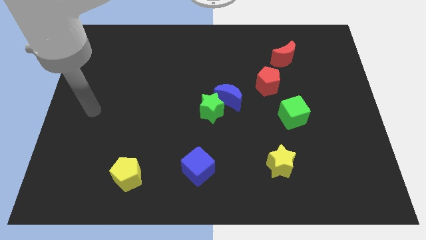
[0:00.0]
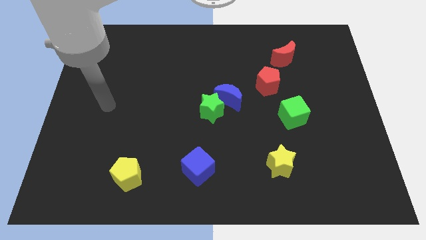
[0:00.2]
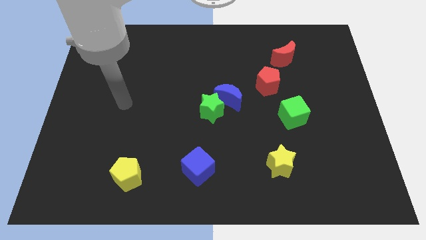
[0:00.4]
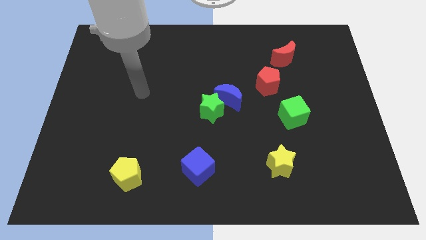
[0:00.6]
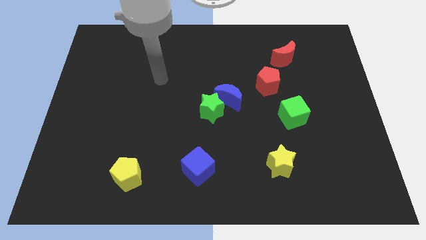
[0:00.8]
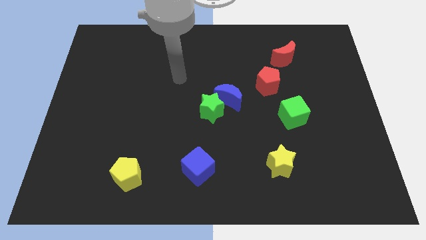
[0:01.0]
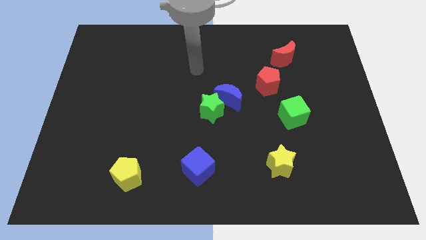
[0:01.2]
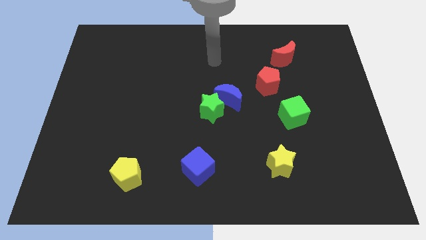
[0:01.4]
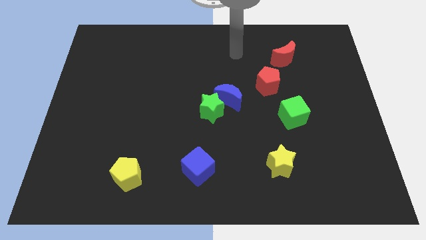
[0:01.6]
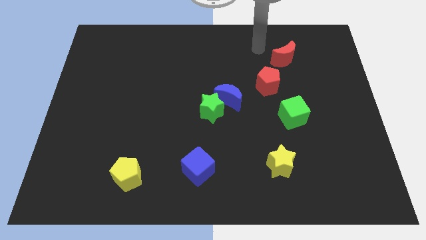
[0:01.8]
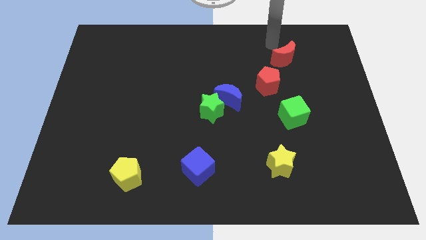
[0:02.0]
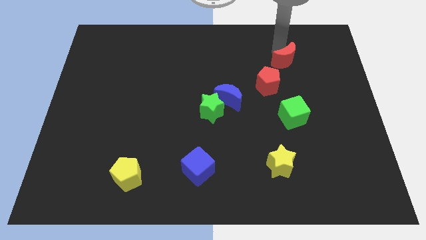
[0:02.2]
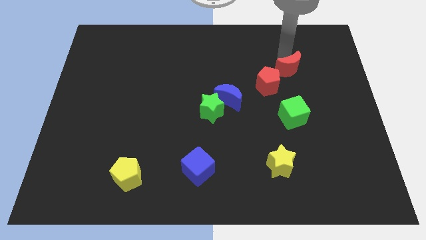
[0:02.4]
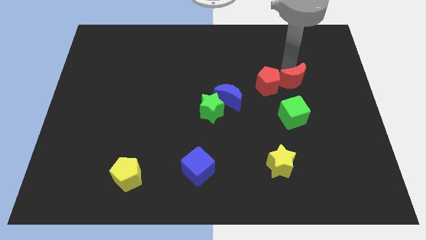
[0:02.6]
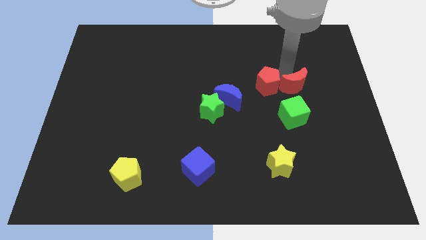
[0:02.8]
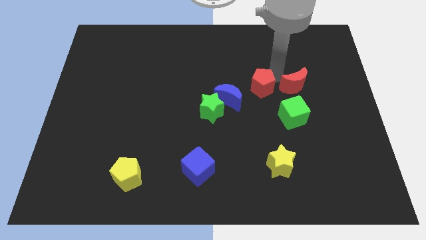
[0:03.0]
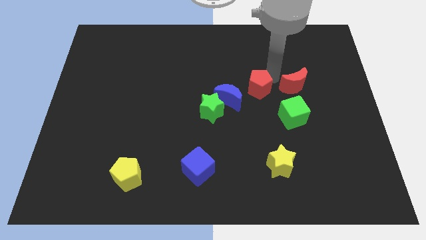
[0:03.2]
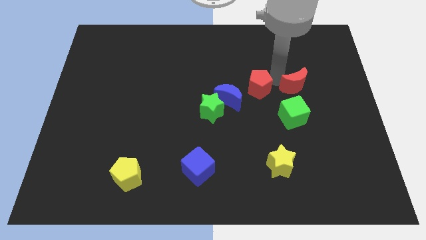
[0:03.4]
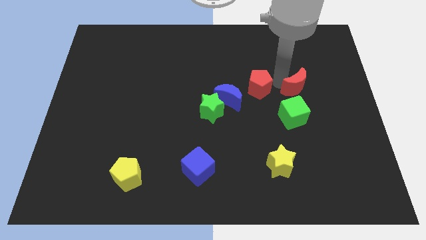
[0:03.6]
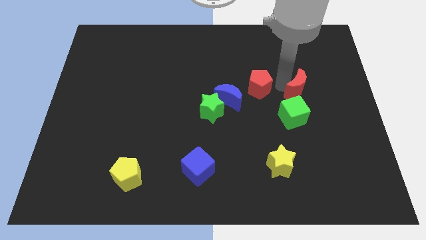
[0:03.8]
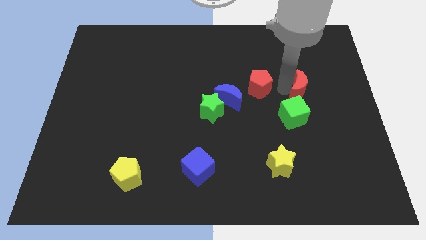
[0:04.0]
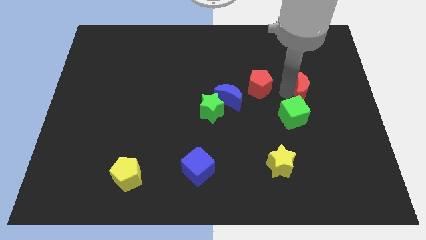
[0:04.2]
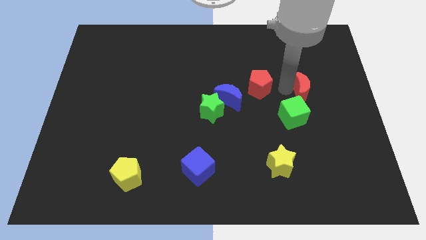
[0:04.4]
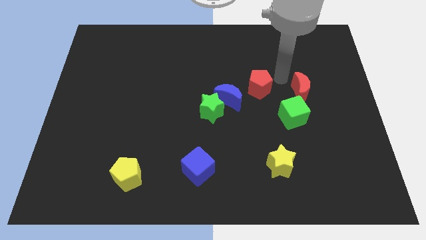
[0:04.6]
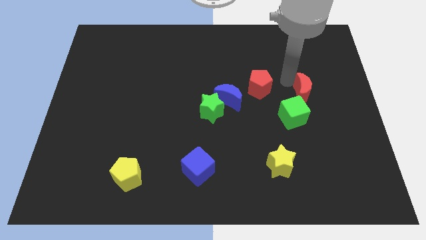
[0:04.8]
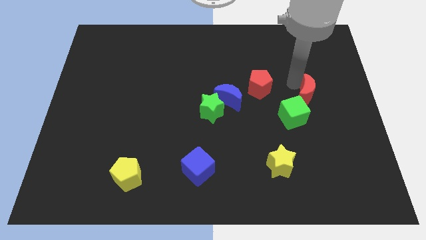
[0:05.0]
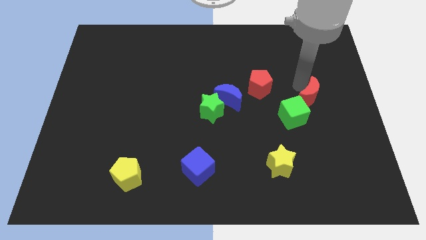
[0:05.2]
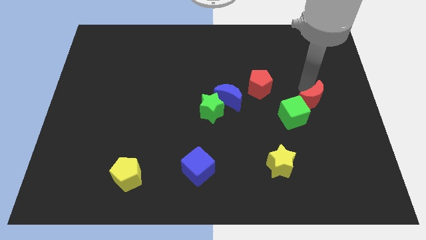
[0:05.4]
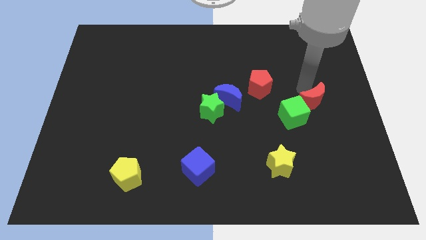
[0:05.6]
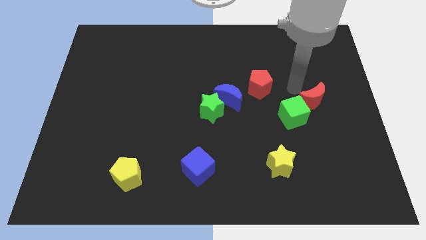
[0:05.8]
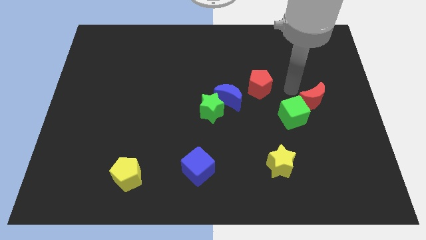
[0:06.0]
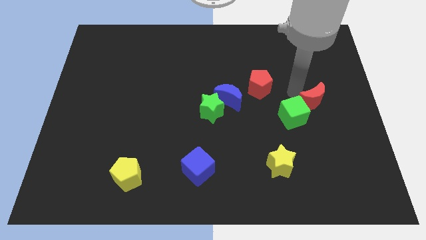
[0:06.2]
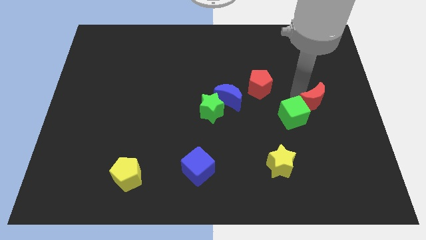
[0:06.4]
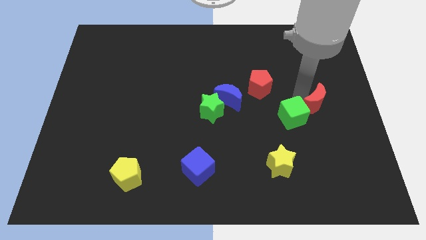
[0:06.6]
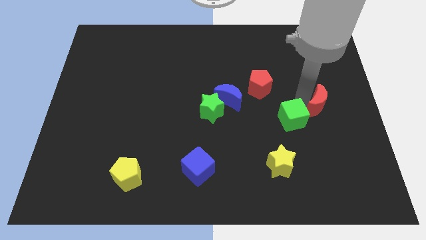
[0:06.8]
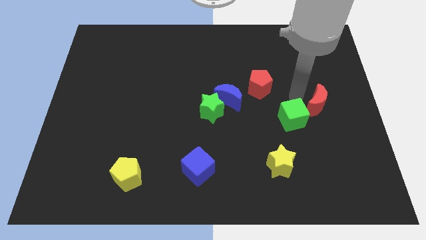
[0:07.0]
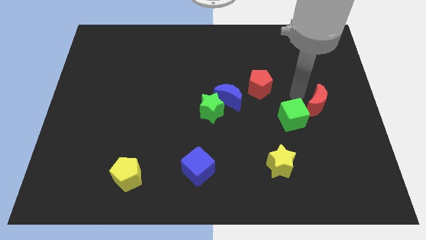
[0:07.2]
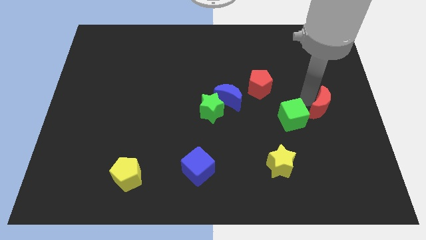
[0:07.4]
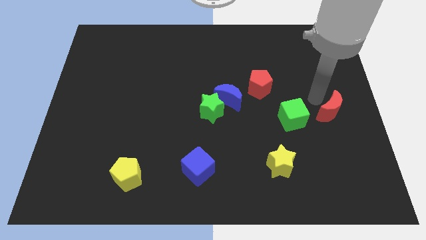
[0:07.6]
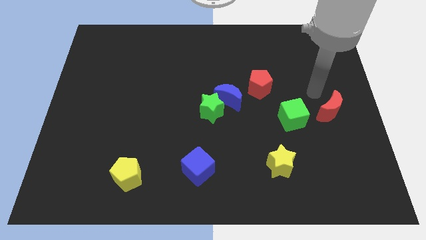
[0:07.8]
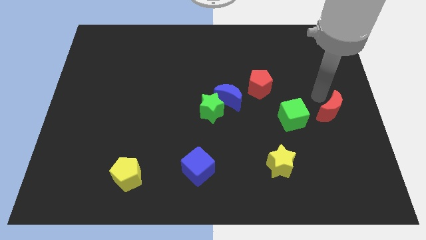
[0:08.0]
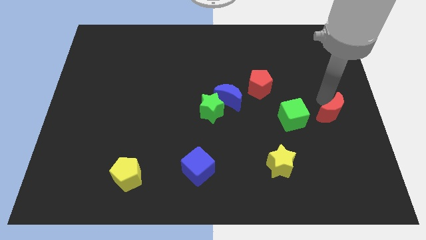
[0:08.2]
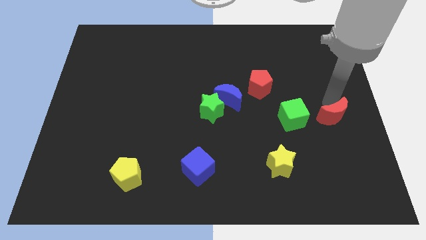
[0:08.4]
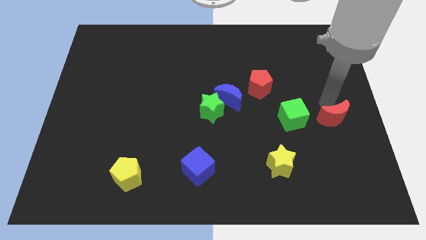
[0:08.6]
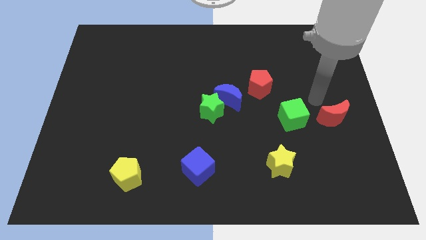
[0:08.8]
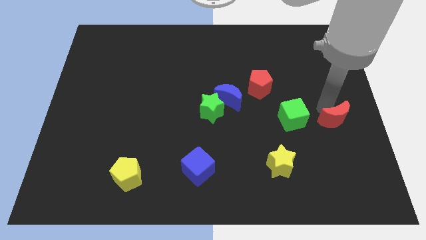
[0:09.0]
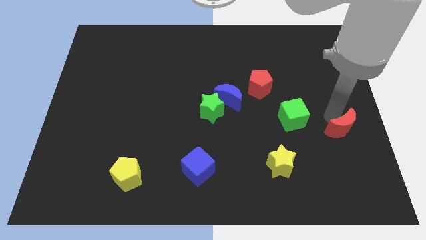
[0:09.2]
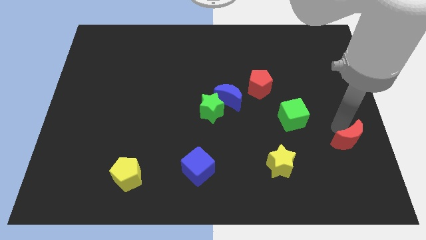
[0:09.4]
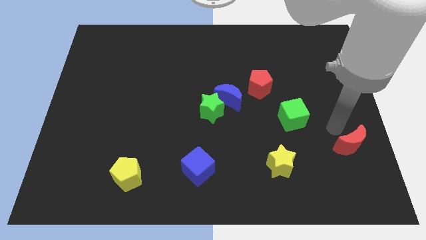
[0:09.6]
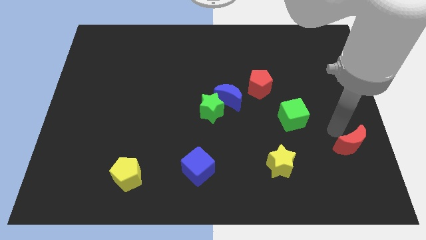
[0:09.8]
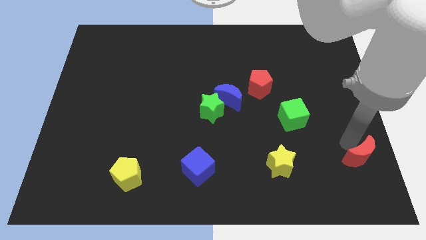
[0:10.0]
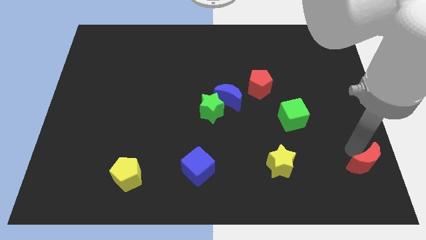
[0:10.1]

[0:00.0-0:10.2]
move the red moon to the bottom right corner

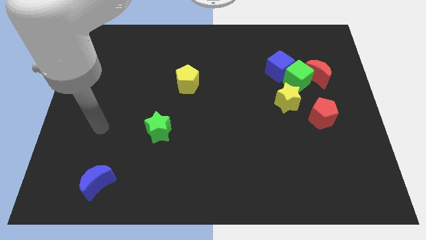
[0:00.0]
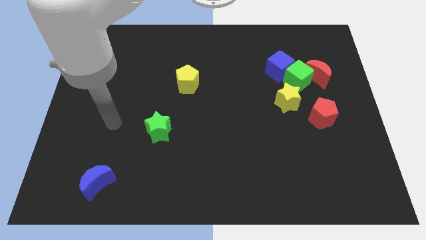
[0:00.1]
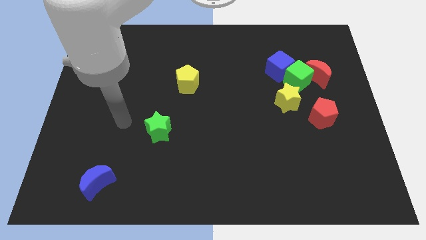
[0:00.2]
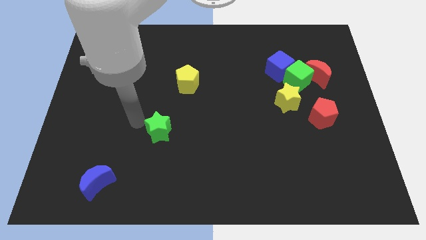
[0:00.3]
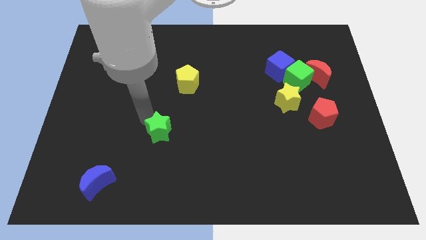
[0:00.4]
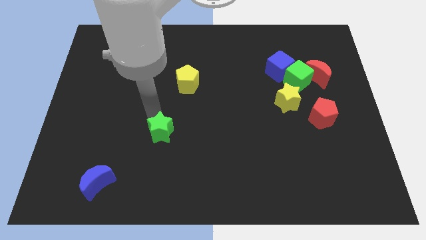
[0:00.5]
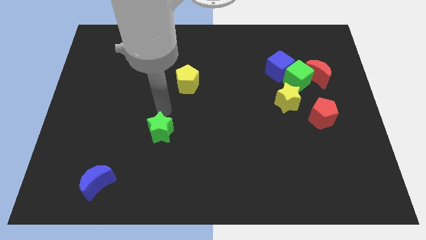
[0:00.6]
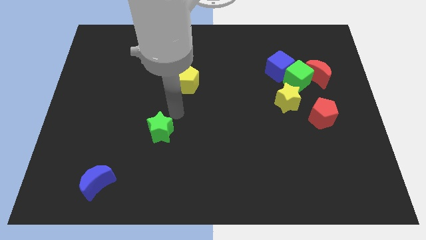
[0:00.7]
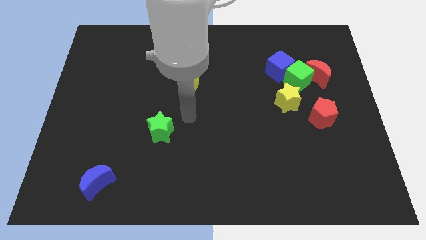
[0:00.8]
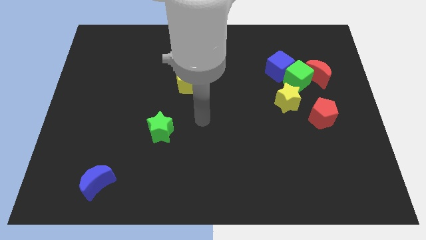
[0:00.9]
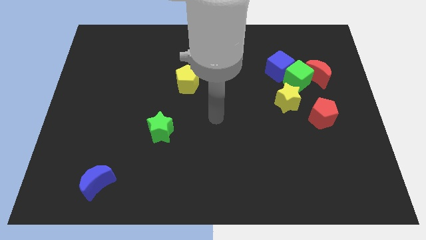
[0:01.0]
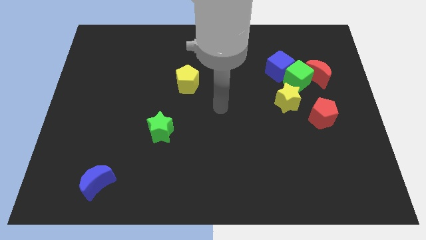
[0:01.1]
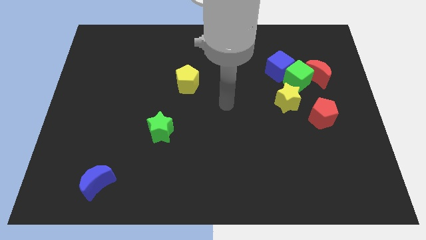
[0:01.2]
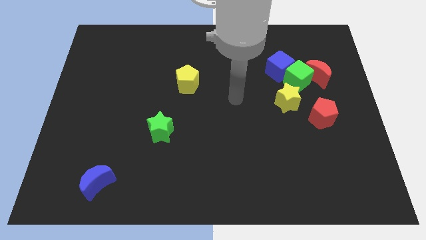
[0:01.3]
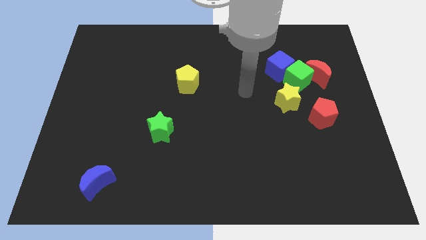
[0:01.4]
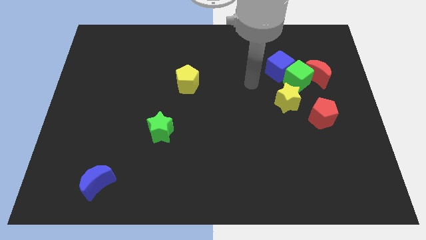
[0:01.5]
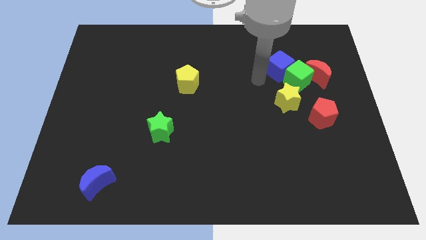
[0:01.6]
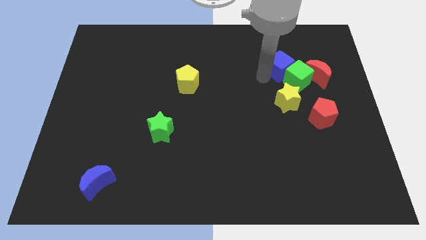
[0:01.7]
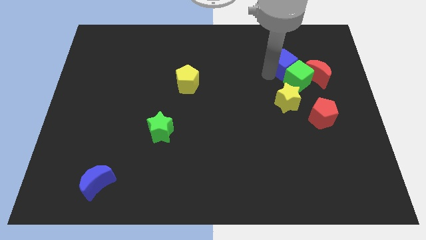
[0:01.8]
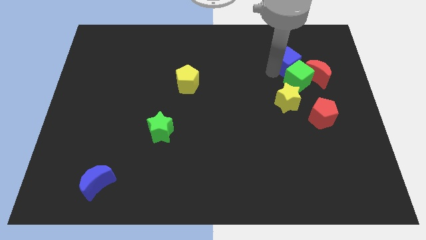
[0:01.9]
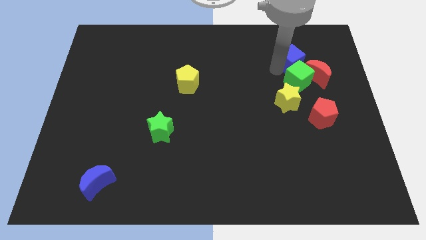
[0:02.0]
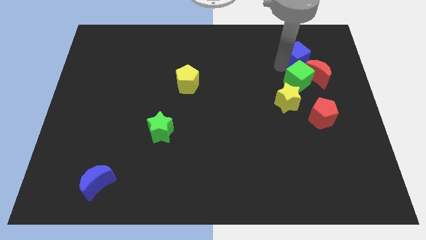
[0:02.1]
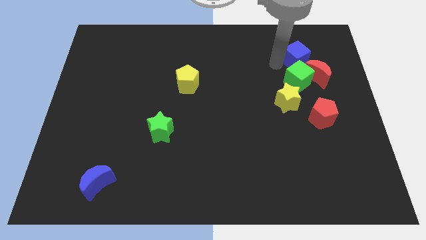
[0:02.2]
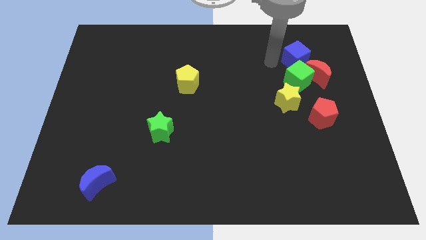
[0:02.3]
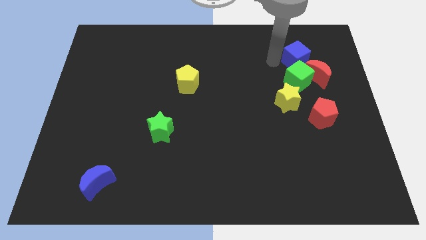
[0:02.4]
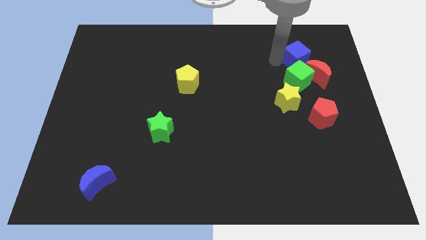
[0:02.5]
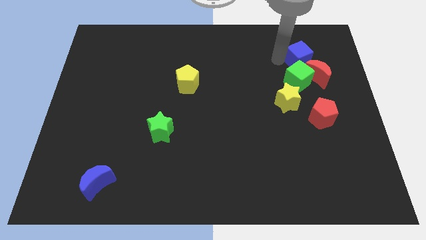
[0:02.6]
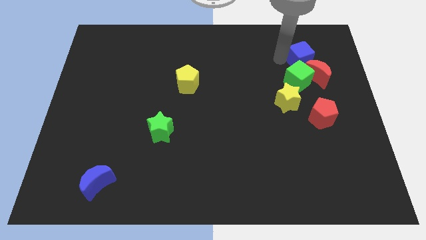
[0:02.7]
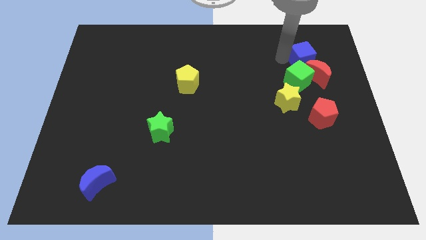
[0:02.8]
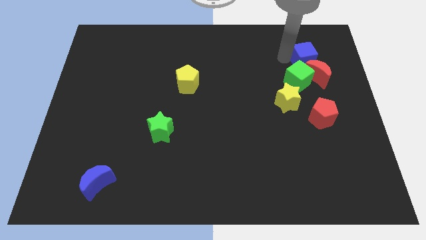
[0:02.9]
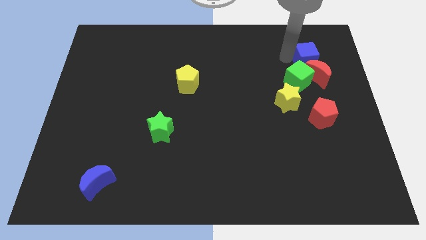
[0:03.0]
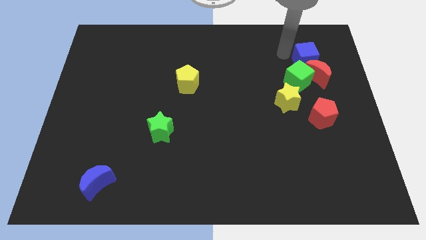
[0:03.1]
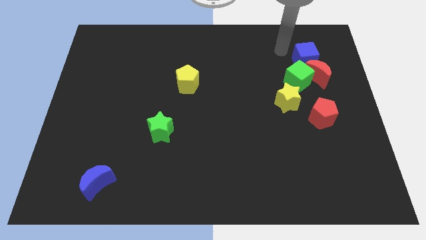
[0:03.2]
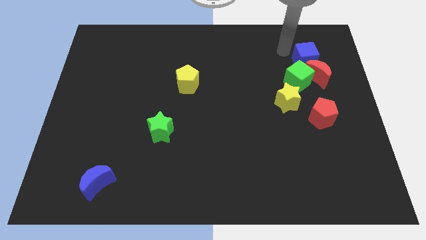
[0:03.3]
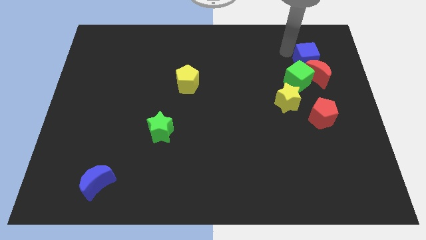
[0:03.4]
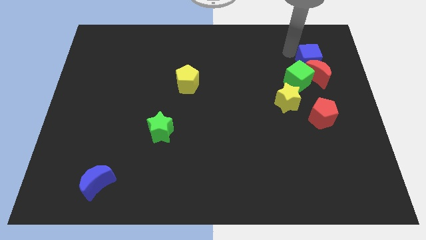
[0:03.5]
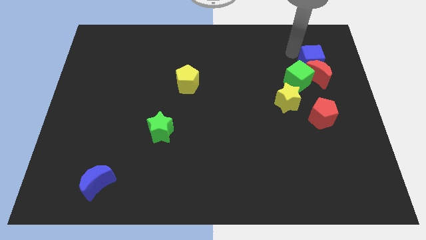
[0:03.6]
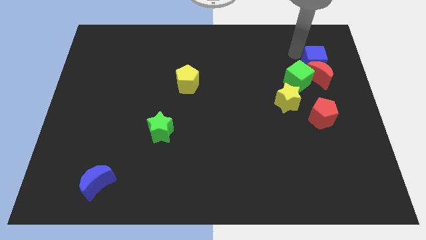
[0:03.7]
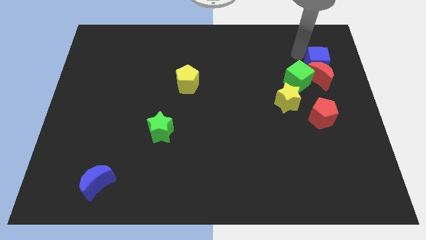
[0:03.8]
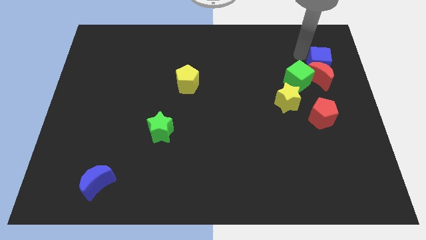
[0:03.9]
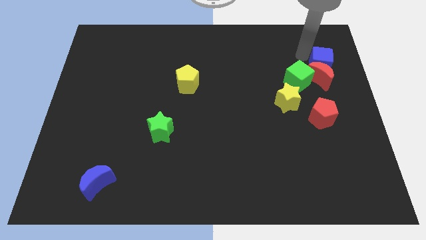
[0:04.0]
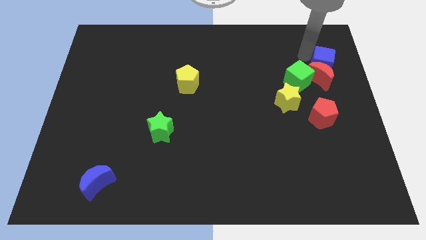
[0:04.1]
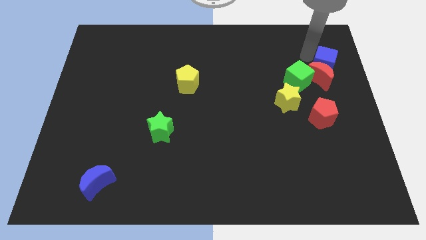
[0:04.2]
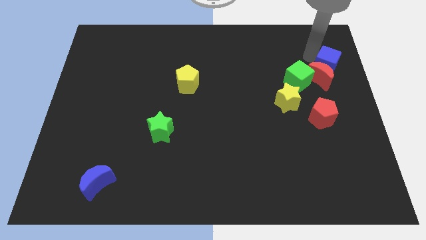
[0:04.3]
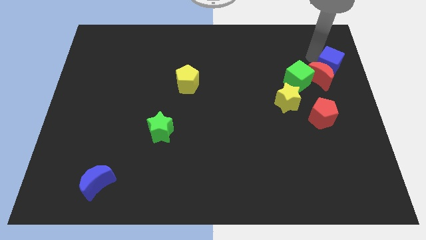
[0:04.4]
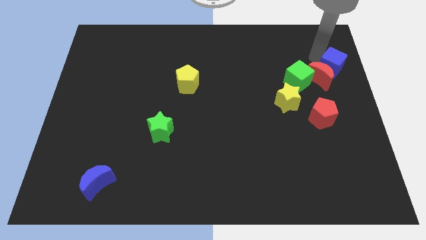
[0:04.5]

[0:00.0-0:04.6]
move the blue cube to the right side of the board
